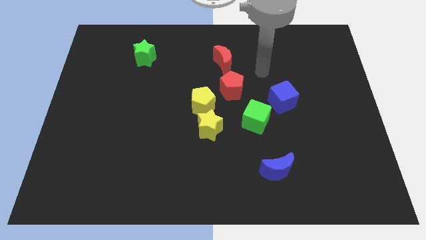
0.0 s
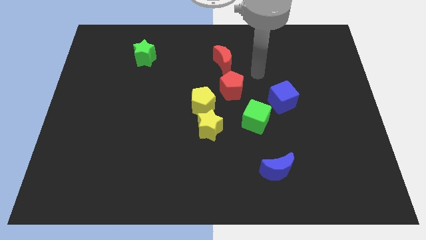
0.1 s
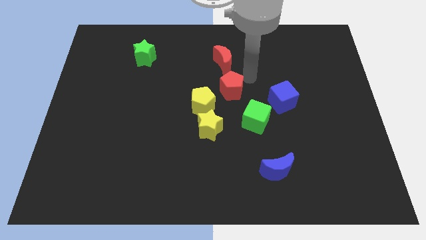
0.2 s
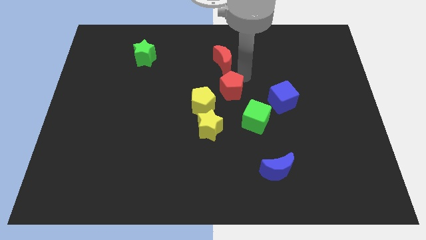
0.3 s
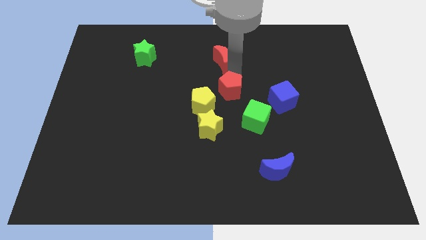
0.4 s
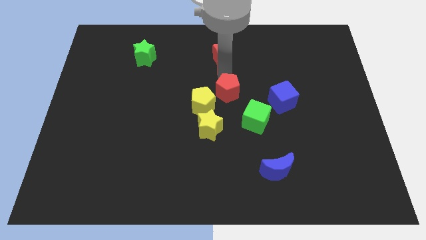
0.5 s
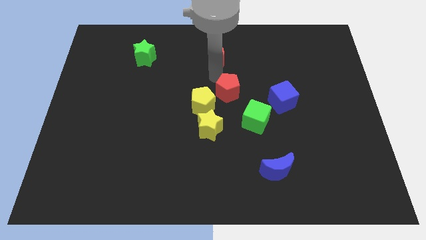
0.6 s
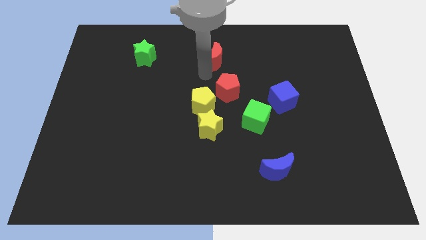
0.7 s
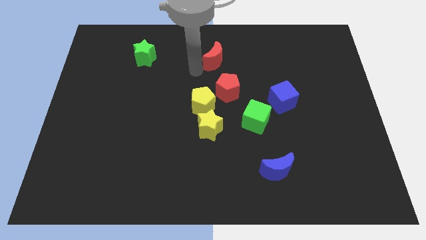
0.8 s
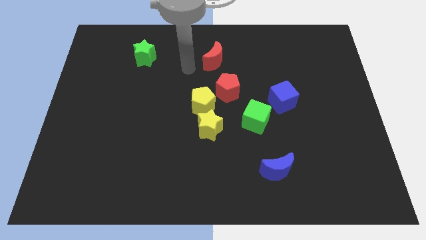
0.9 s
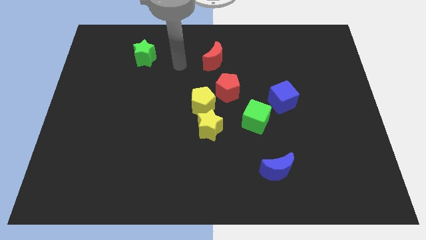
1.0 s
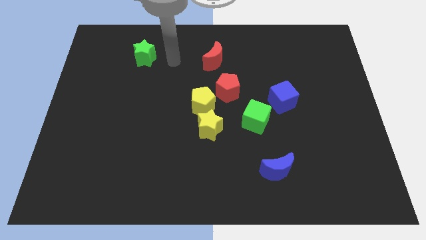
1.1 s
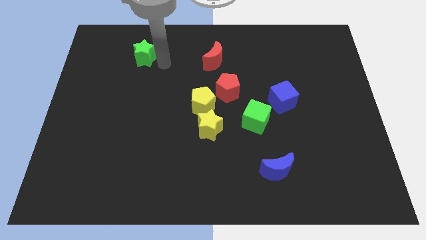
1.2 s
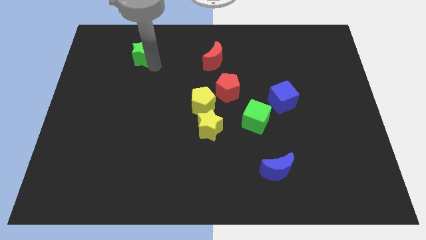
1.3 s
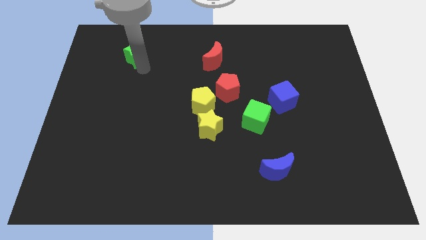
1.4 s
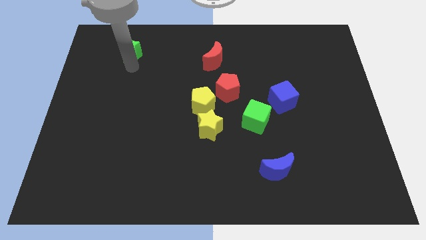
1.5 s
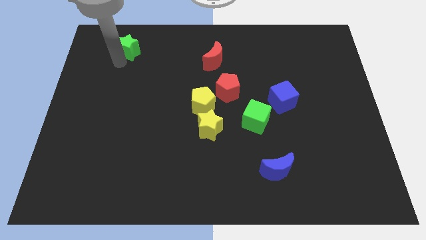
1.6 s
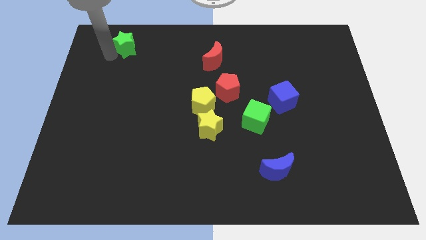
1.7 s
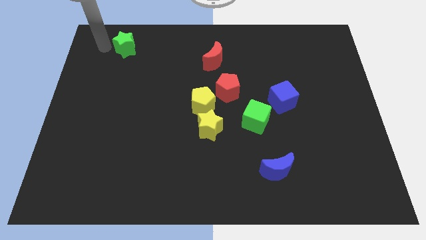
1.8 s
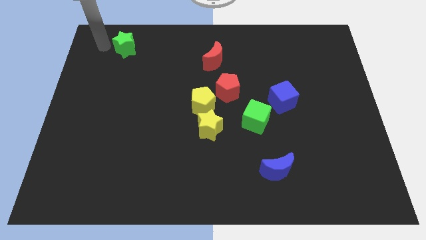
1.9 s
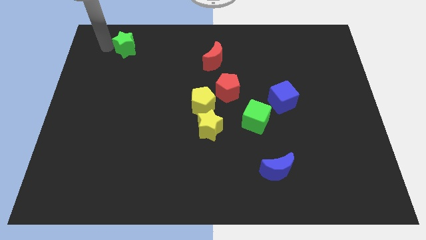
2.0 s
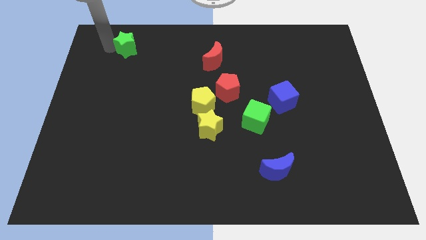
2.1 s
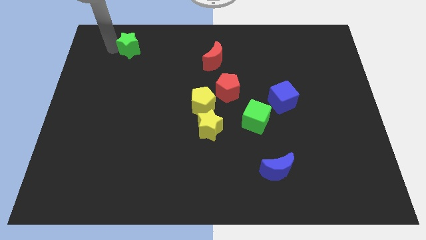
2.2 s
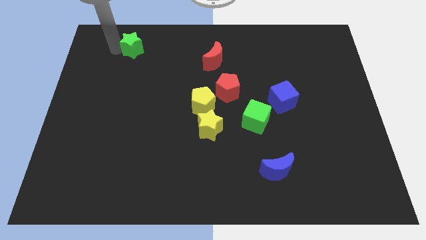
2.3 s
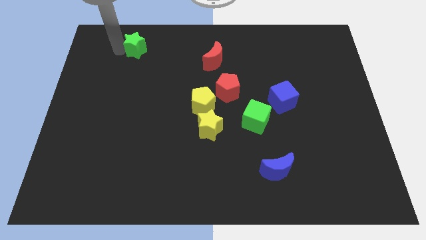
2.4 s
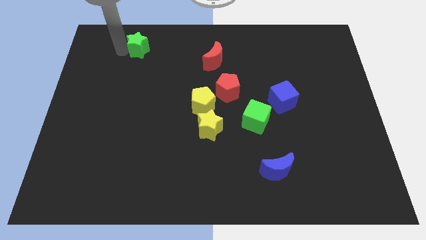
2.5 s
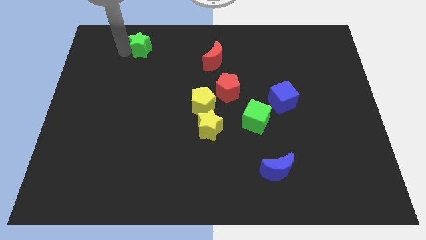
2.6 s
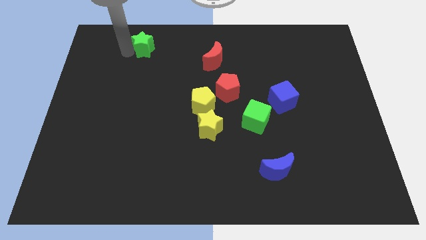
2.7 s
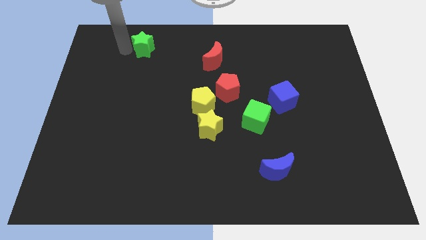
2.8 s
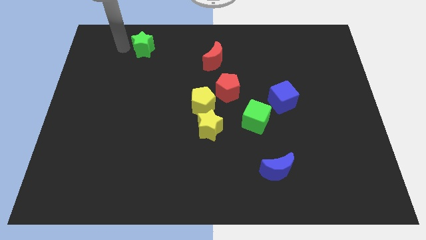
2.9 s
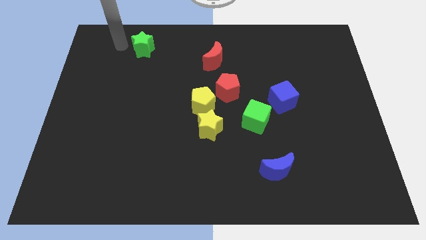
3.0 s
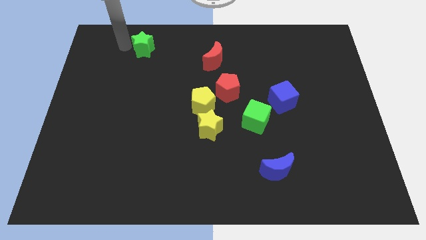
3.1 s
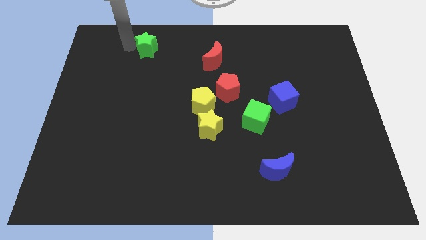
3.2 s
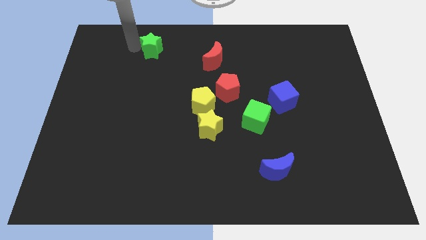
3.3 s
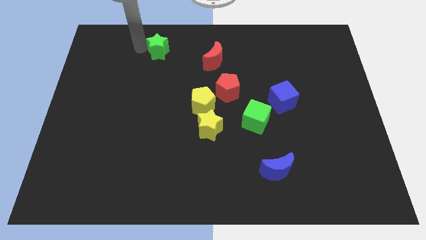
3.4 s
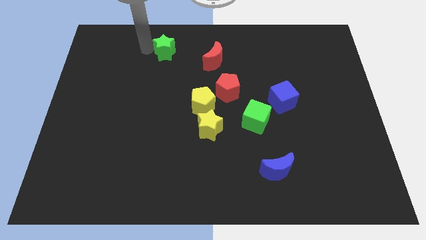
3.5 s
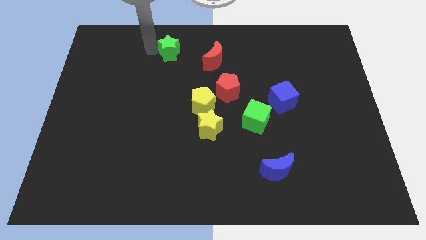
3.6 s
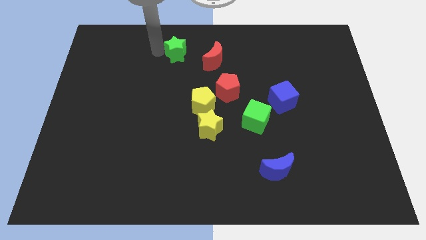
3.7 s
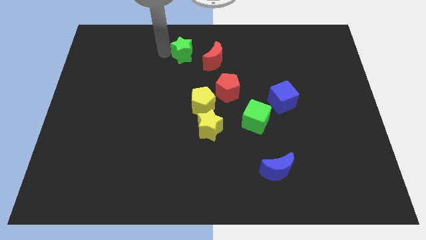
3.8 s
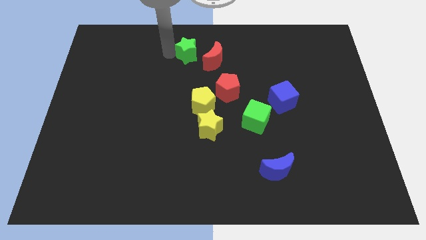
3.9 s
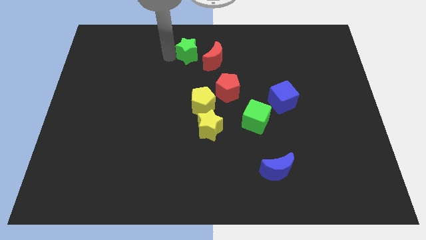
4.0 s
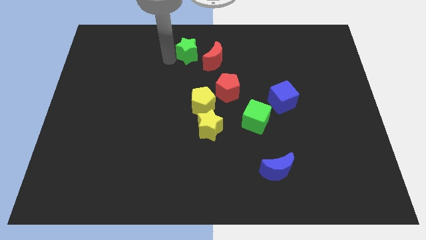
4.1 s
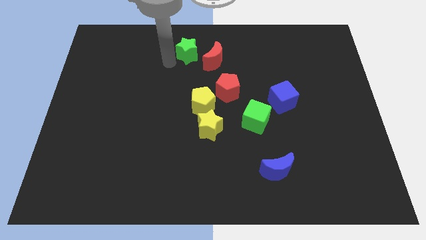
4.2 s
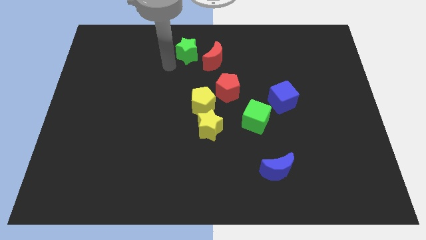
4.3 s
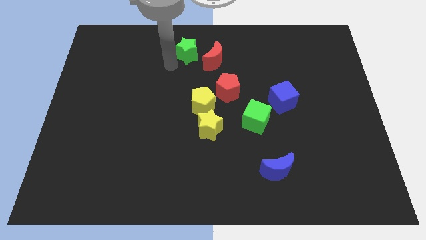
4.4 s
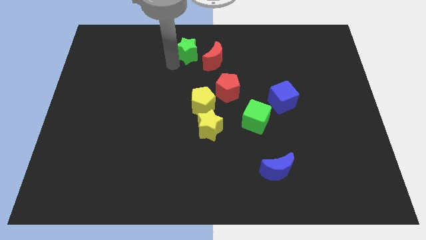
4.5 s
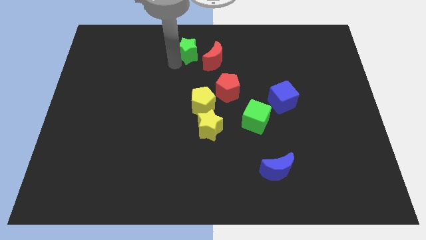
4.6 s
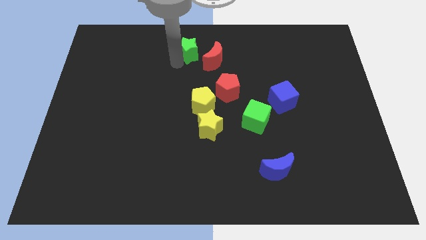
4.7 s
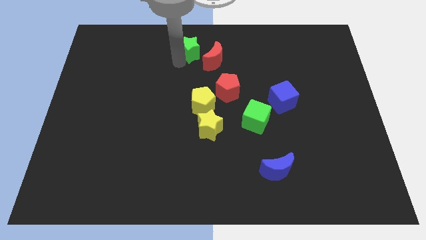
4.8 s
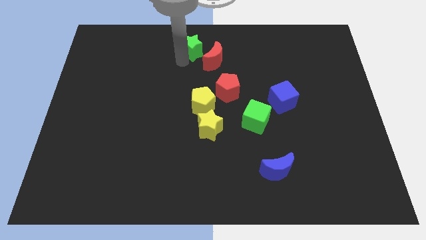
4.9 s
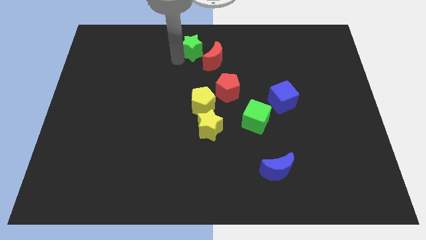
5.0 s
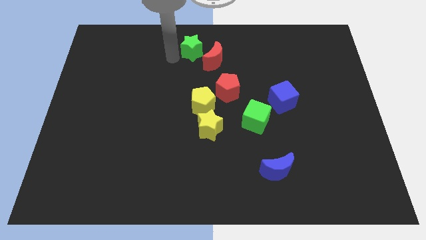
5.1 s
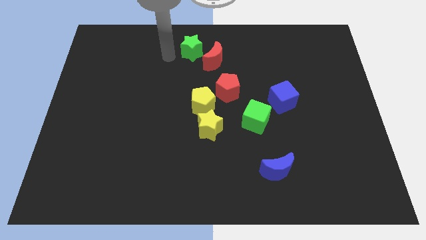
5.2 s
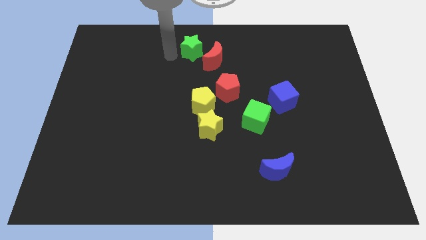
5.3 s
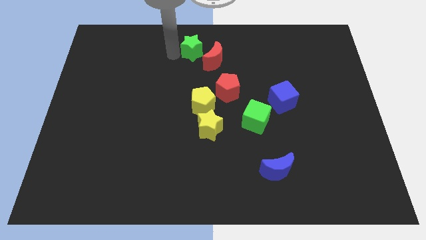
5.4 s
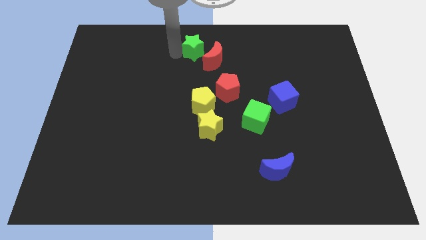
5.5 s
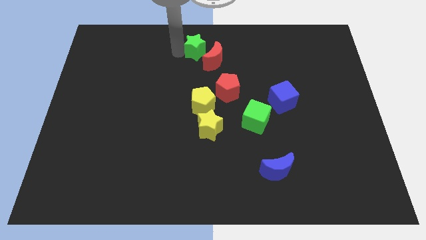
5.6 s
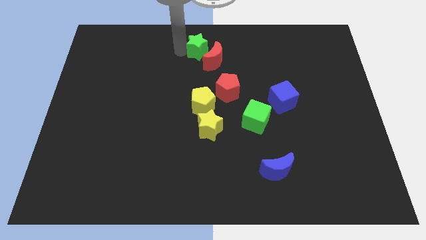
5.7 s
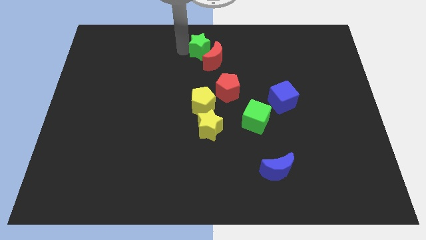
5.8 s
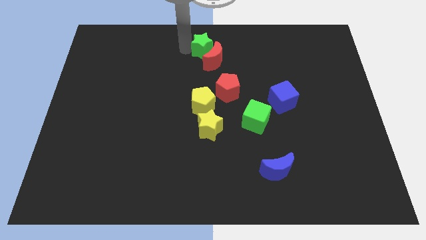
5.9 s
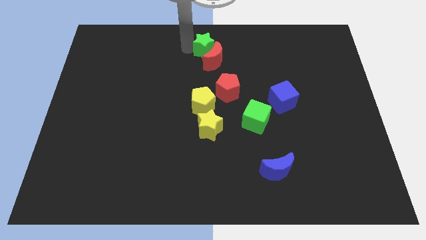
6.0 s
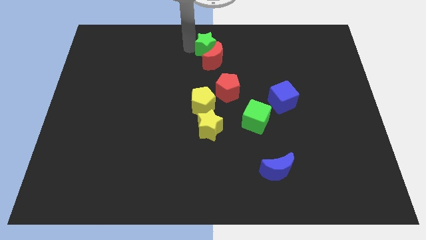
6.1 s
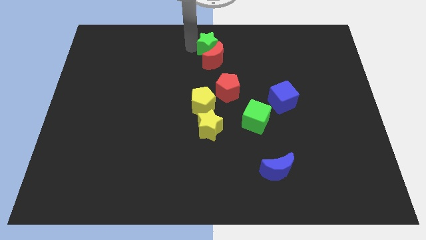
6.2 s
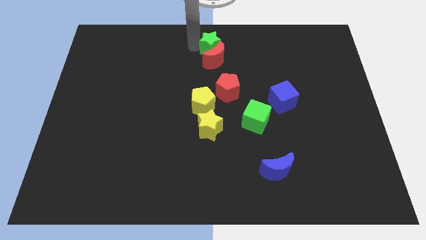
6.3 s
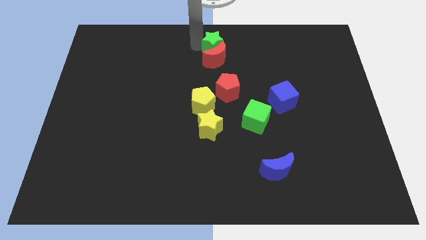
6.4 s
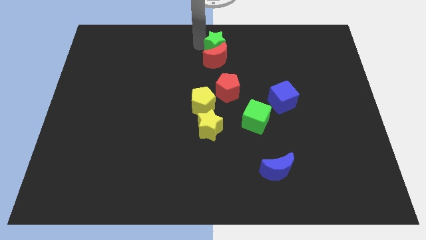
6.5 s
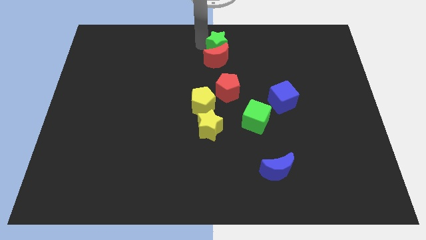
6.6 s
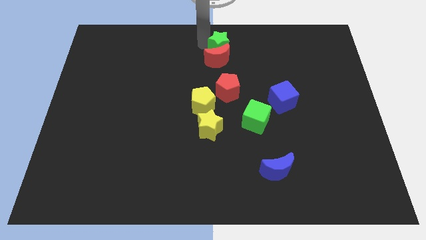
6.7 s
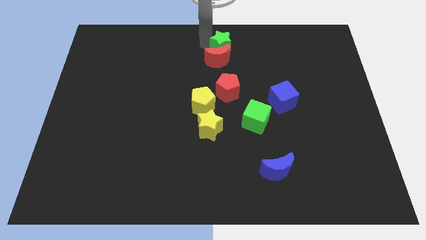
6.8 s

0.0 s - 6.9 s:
move the green star right

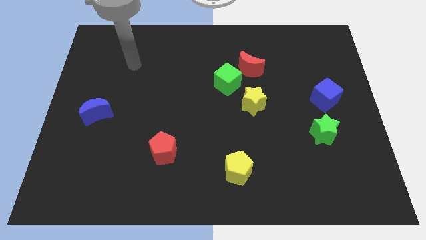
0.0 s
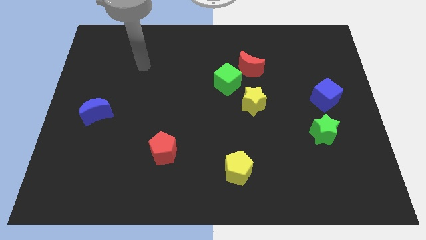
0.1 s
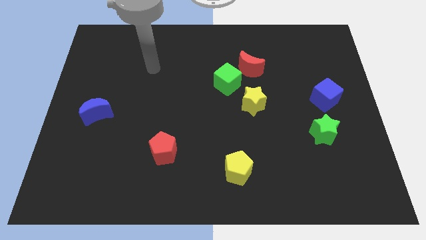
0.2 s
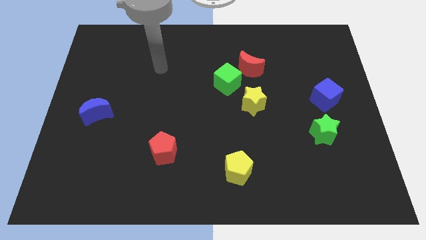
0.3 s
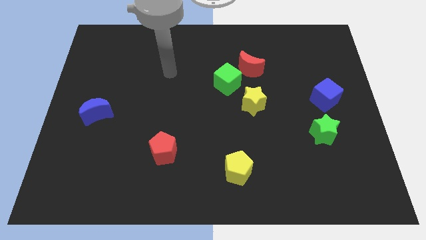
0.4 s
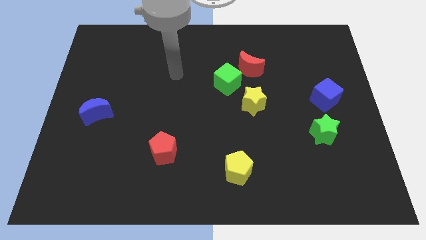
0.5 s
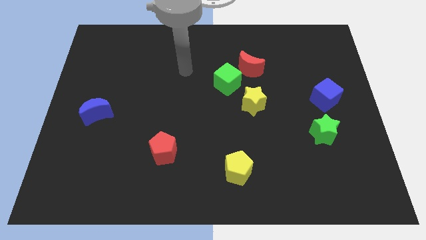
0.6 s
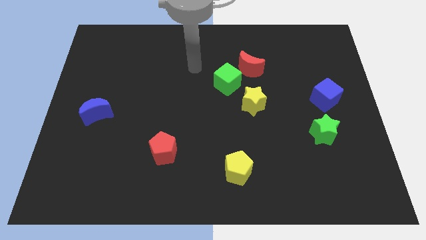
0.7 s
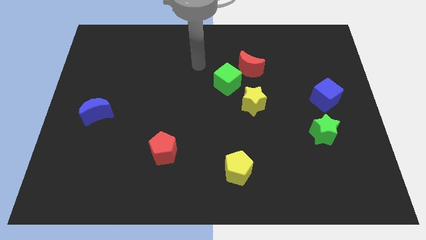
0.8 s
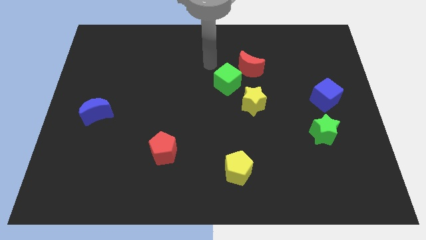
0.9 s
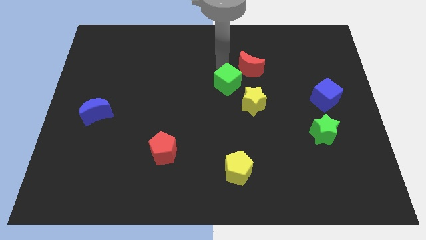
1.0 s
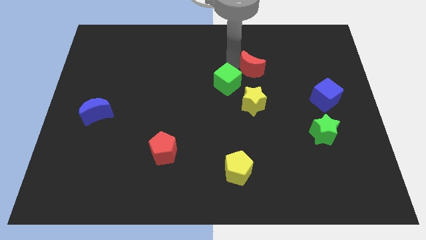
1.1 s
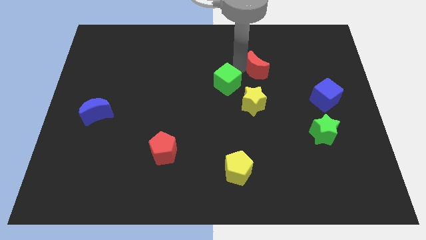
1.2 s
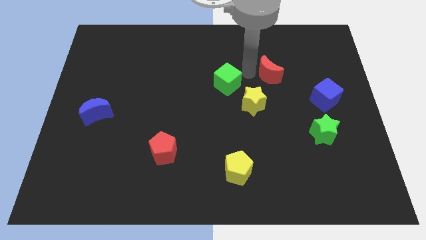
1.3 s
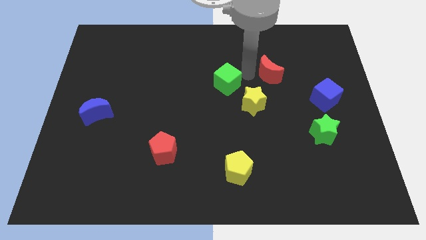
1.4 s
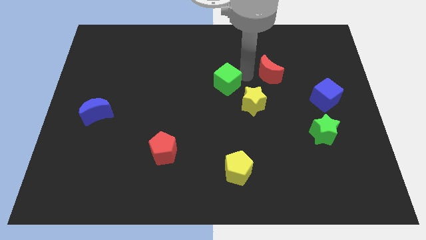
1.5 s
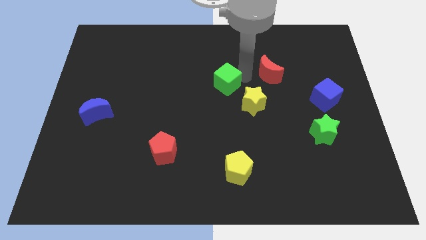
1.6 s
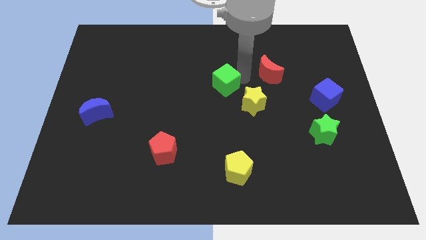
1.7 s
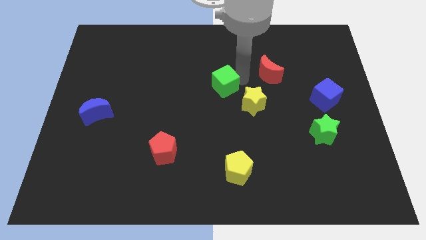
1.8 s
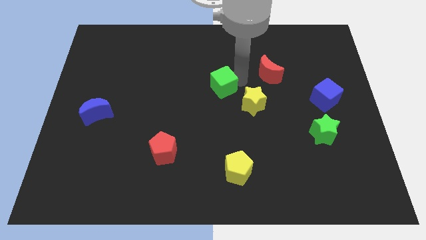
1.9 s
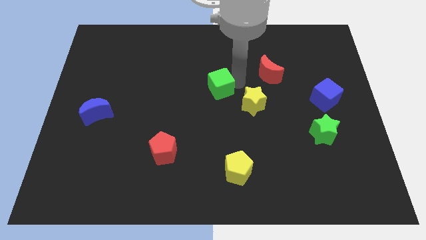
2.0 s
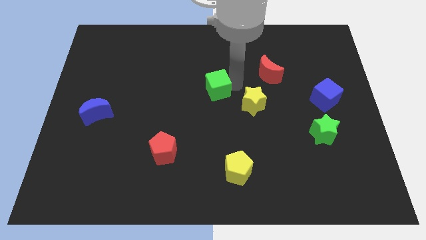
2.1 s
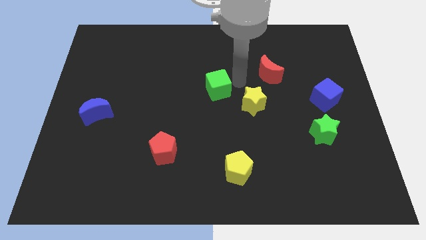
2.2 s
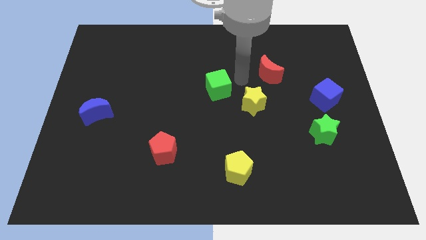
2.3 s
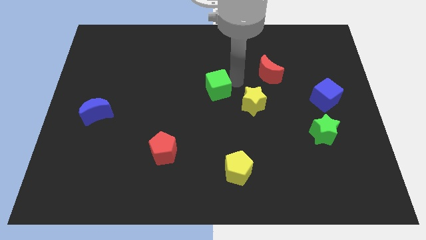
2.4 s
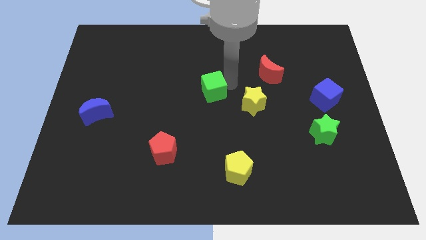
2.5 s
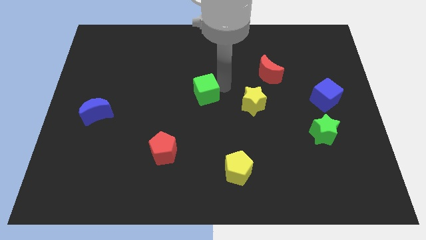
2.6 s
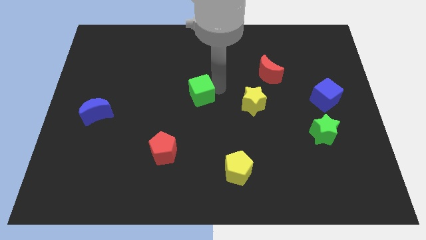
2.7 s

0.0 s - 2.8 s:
slide the green cube down and to the left a little bit
